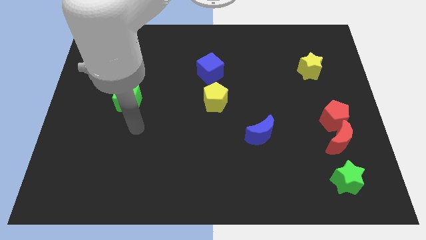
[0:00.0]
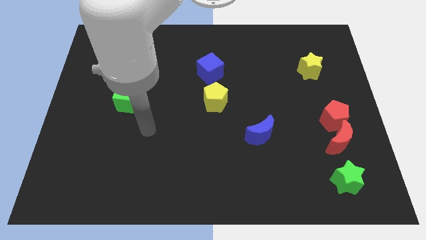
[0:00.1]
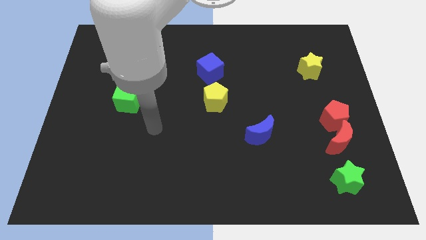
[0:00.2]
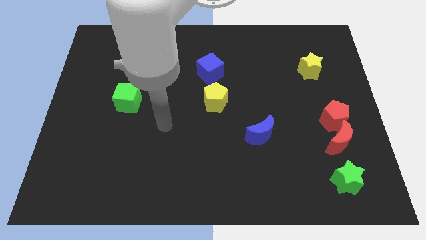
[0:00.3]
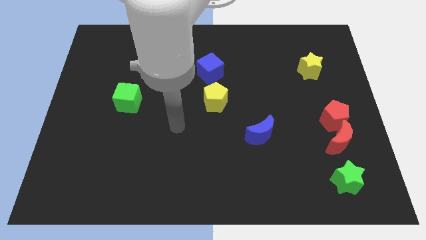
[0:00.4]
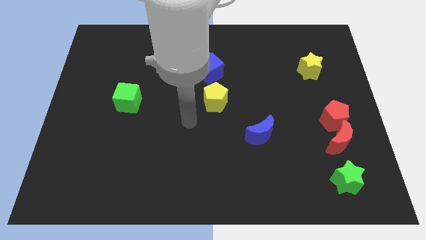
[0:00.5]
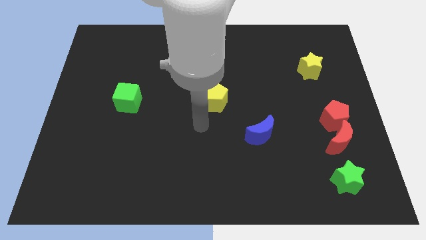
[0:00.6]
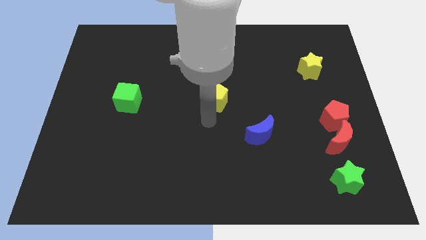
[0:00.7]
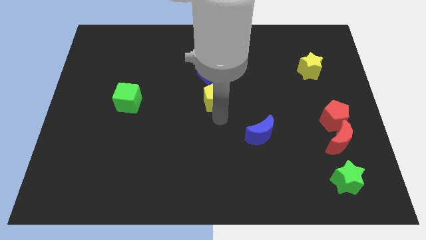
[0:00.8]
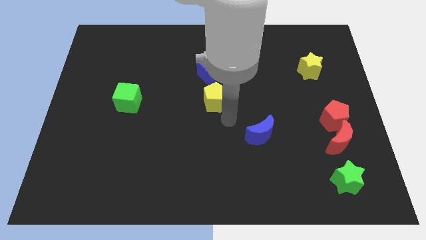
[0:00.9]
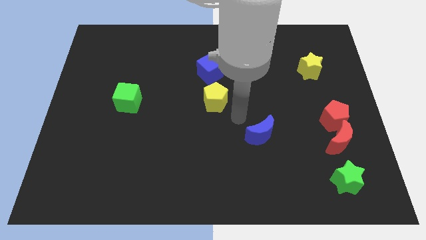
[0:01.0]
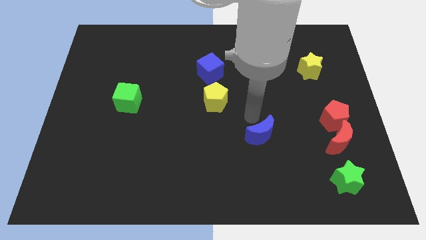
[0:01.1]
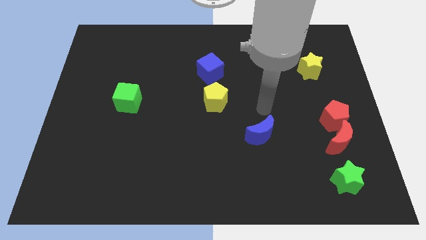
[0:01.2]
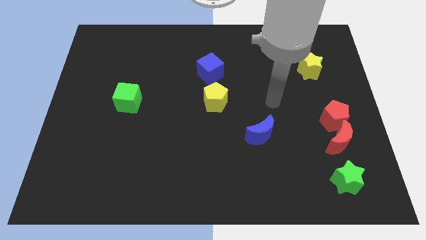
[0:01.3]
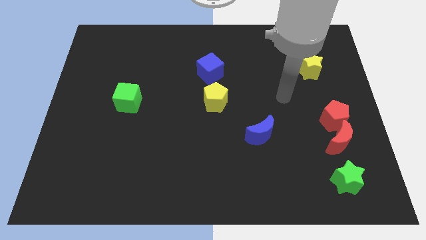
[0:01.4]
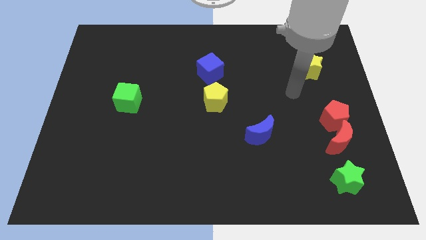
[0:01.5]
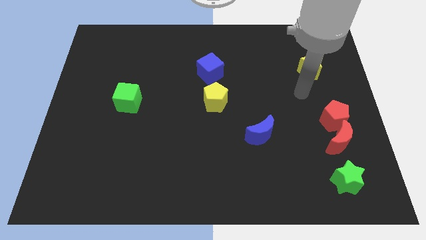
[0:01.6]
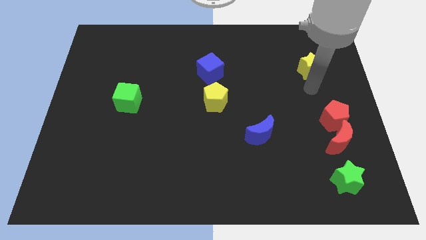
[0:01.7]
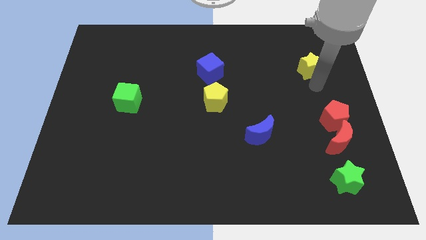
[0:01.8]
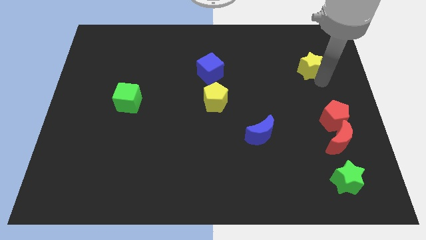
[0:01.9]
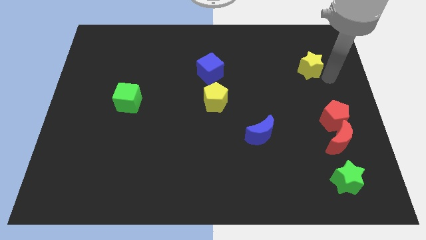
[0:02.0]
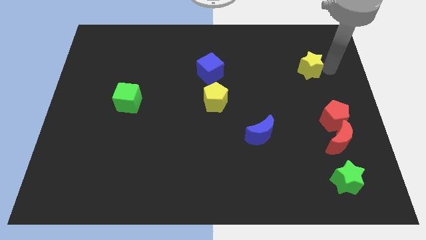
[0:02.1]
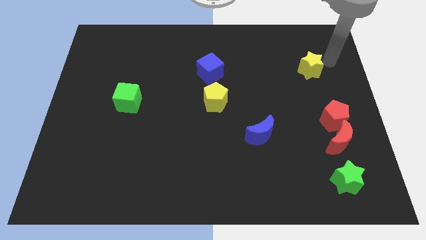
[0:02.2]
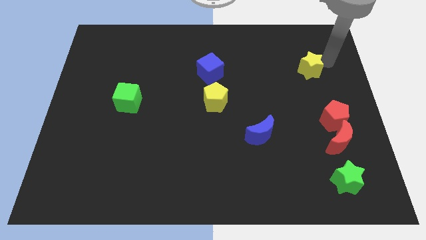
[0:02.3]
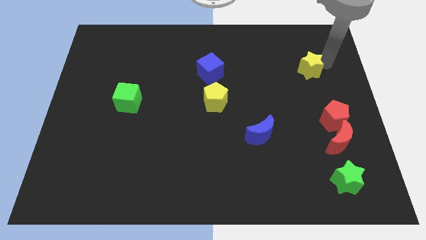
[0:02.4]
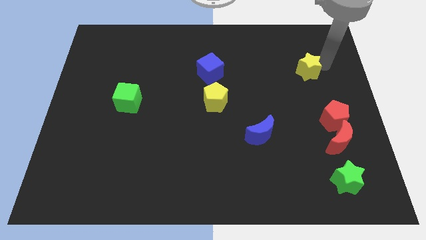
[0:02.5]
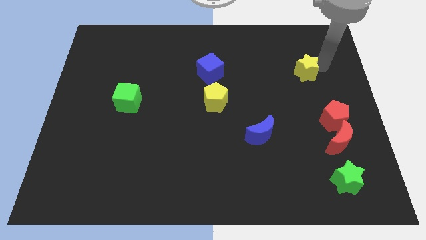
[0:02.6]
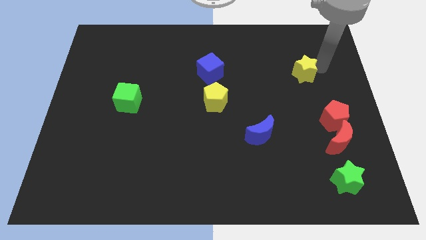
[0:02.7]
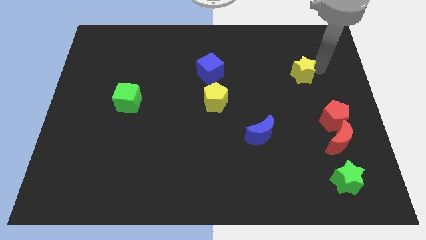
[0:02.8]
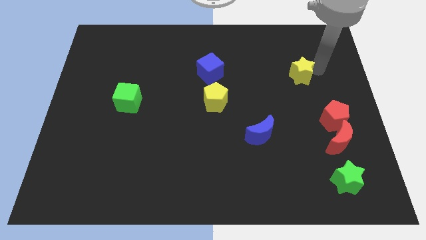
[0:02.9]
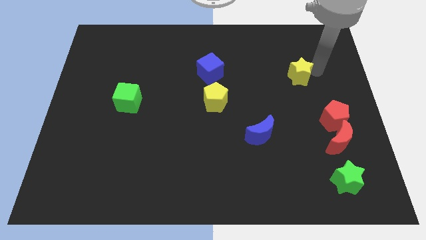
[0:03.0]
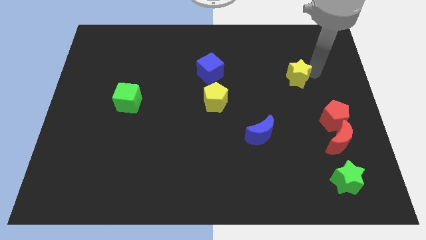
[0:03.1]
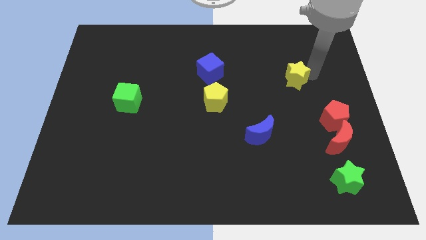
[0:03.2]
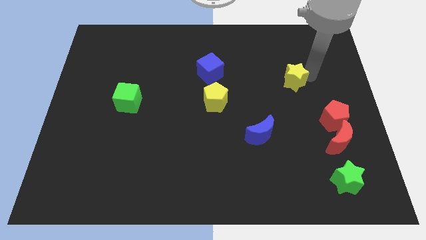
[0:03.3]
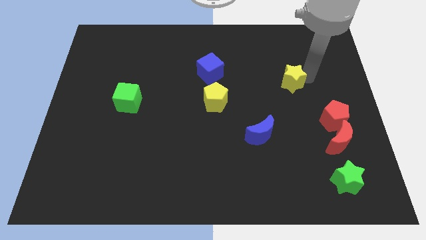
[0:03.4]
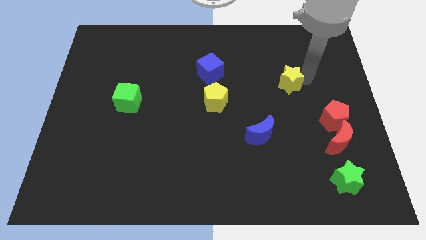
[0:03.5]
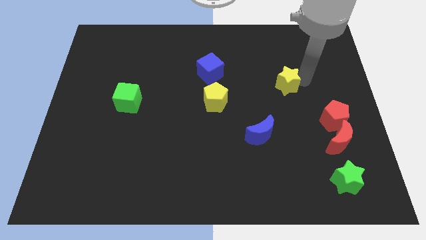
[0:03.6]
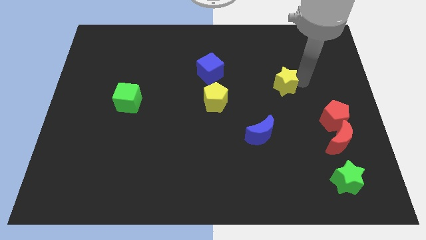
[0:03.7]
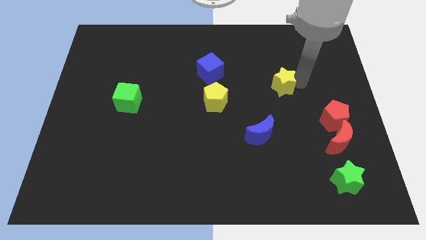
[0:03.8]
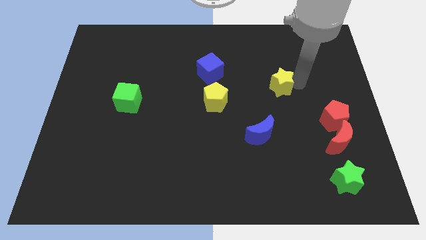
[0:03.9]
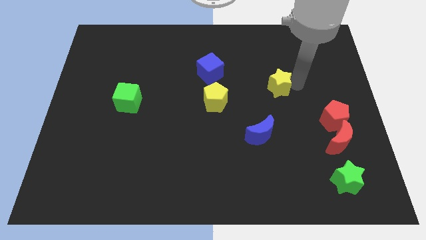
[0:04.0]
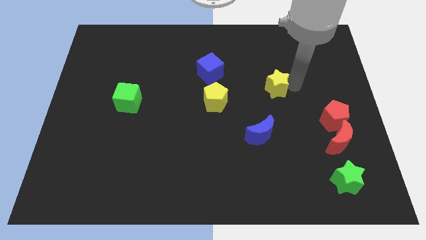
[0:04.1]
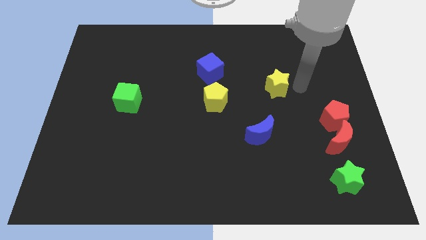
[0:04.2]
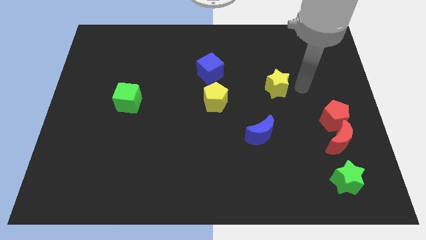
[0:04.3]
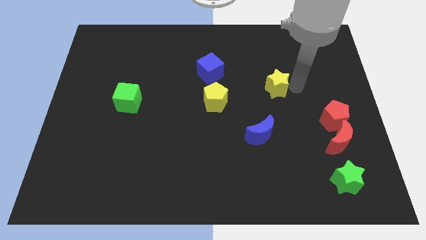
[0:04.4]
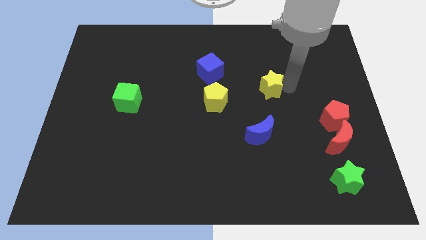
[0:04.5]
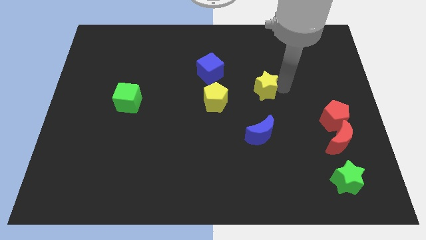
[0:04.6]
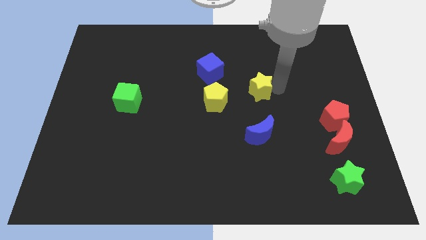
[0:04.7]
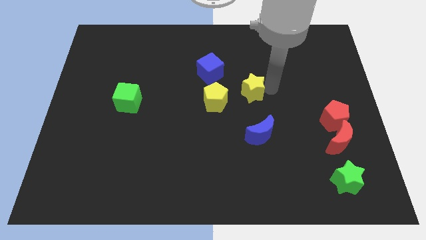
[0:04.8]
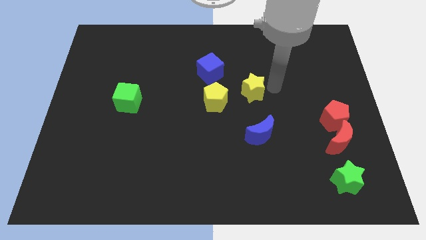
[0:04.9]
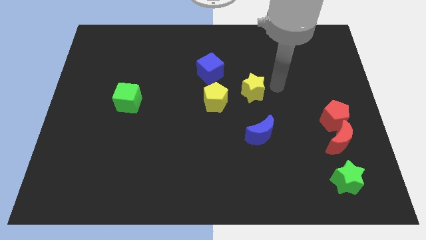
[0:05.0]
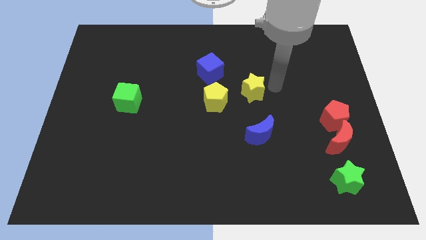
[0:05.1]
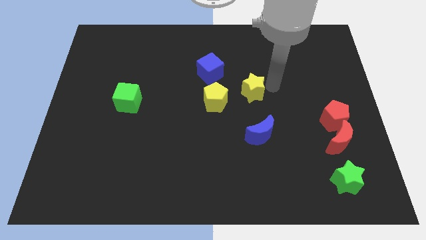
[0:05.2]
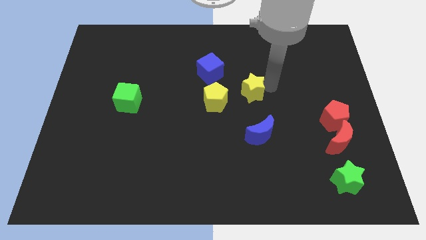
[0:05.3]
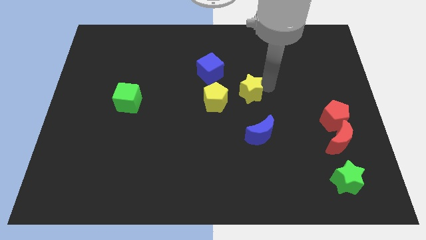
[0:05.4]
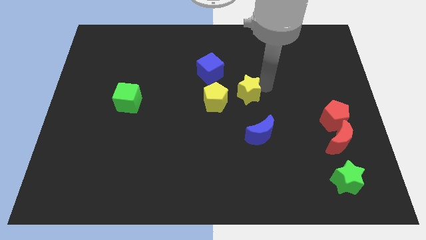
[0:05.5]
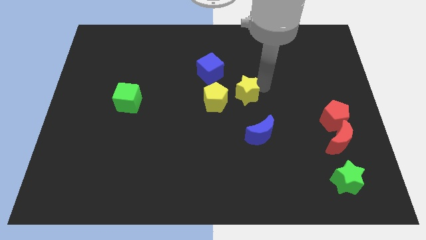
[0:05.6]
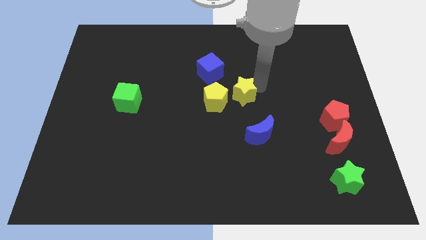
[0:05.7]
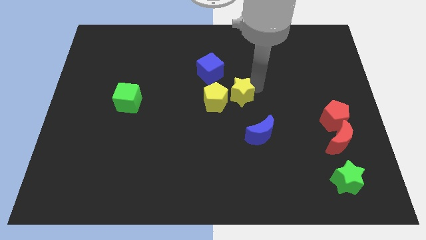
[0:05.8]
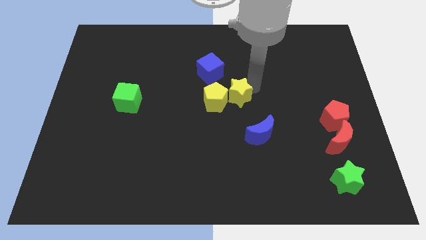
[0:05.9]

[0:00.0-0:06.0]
move the yellow star next to the yellow pentagon
